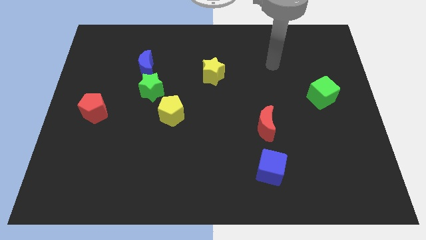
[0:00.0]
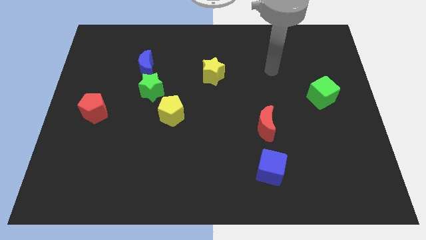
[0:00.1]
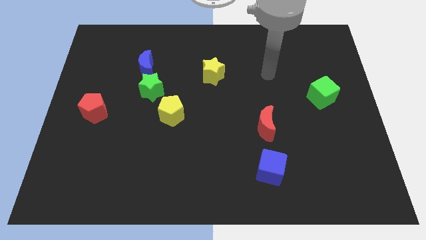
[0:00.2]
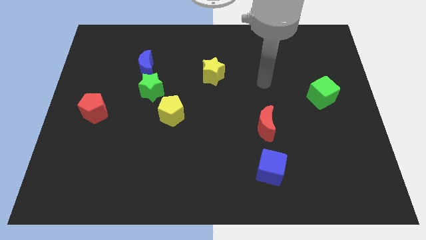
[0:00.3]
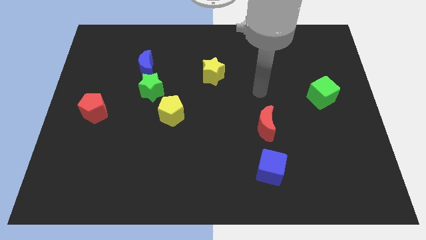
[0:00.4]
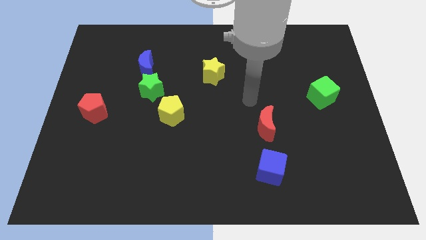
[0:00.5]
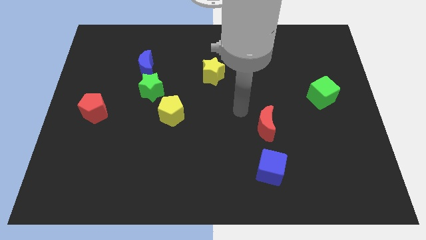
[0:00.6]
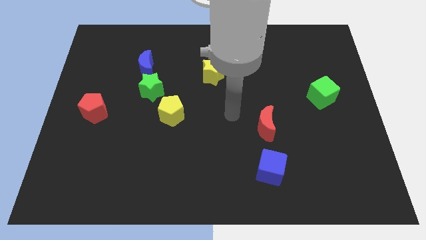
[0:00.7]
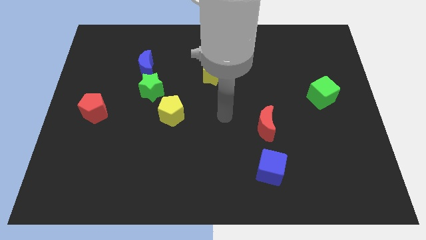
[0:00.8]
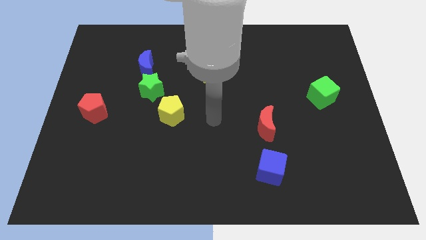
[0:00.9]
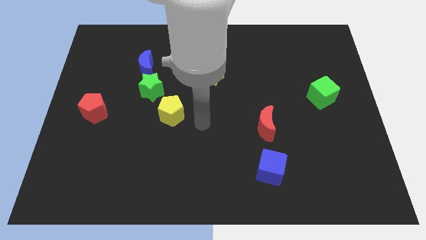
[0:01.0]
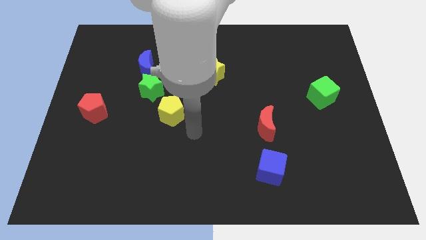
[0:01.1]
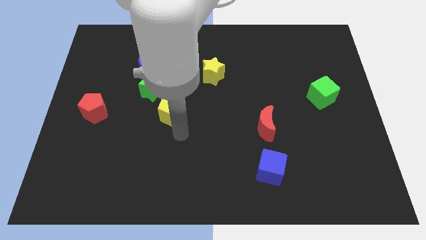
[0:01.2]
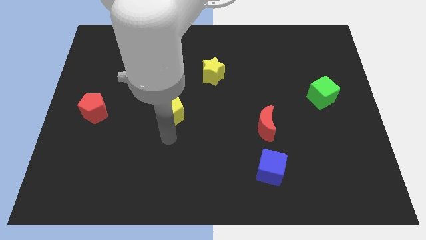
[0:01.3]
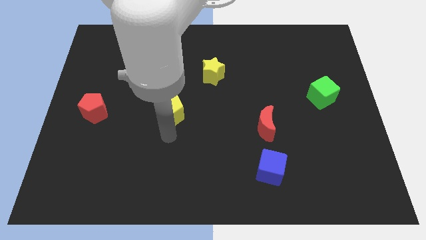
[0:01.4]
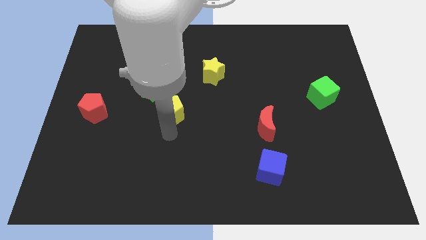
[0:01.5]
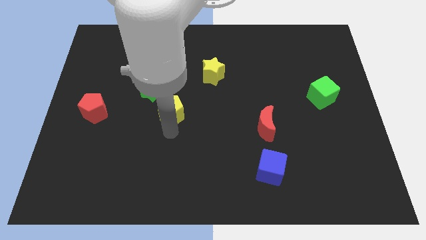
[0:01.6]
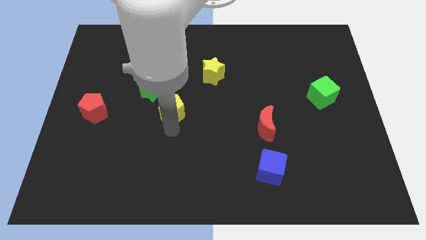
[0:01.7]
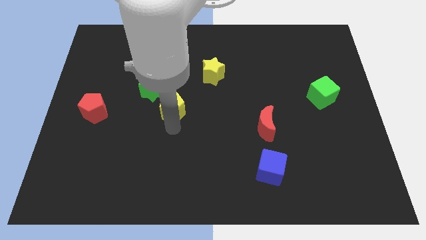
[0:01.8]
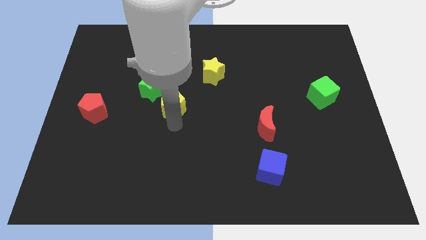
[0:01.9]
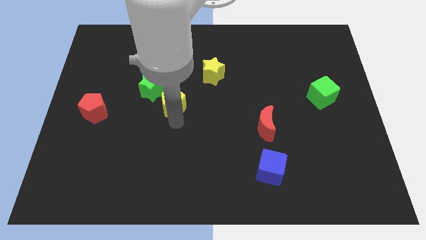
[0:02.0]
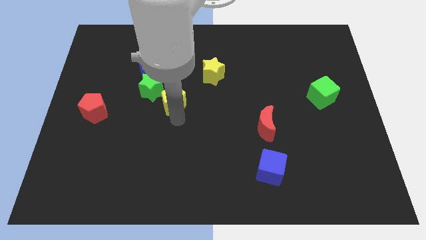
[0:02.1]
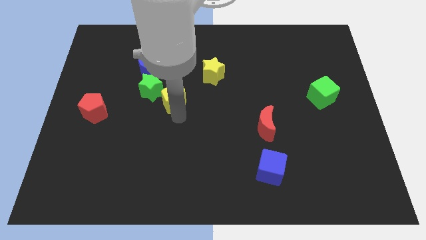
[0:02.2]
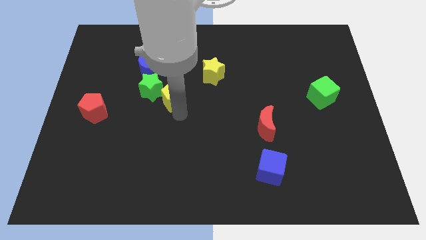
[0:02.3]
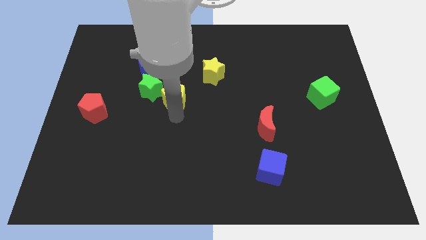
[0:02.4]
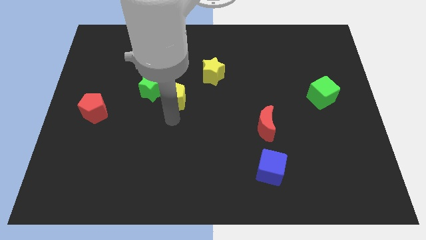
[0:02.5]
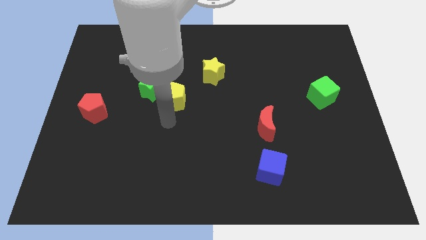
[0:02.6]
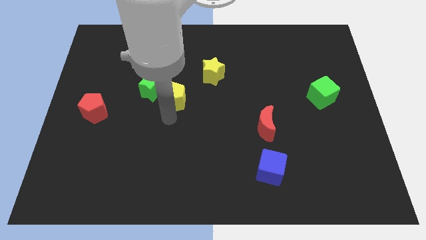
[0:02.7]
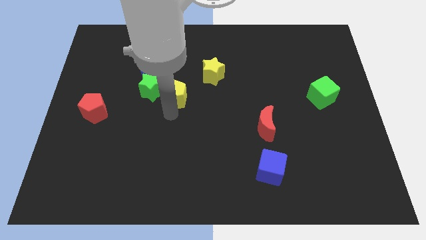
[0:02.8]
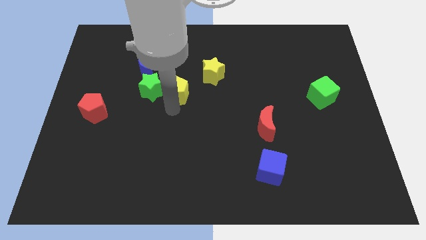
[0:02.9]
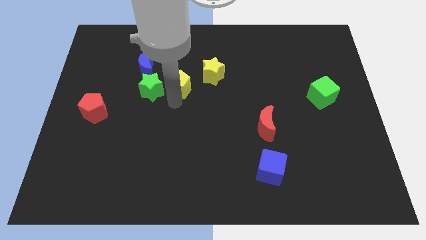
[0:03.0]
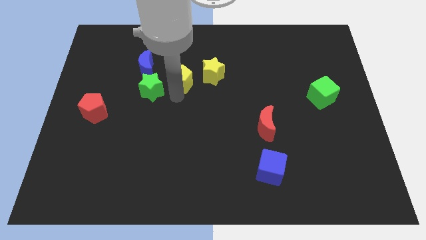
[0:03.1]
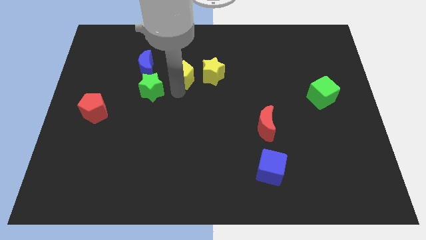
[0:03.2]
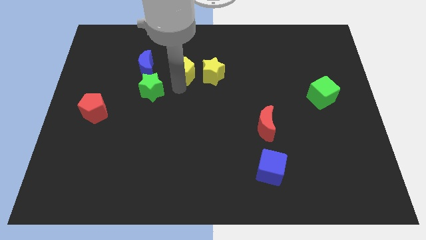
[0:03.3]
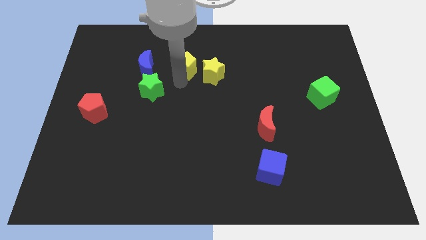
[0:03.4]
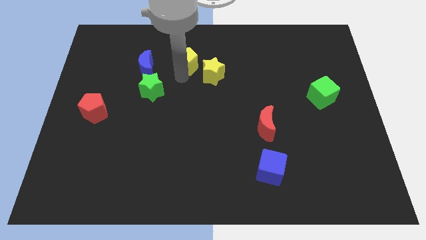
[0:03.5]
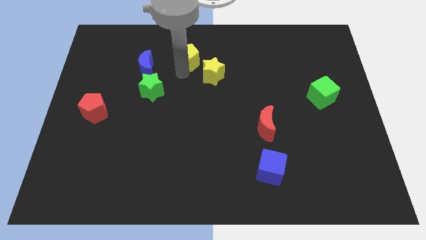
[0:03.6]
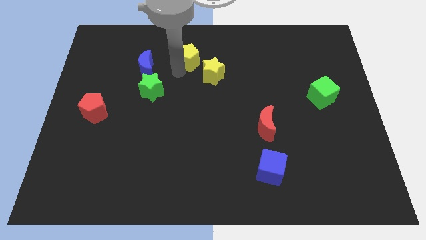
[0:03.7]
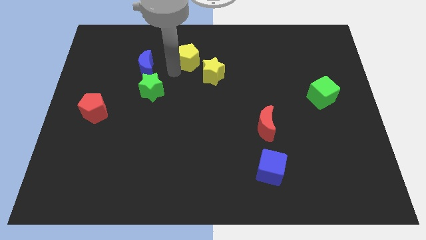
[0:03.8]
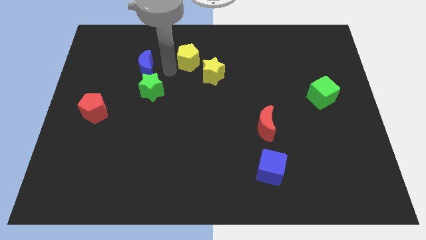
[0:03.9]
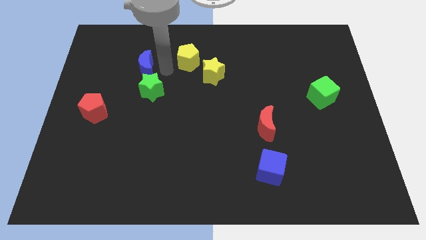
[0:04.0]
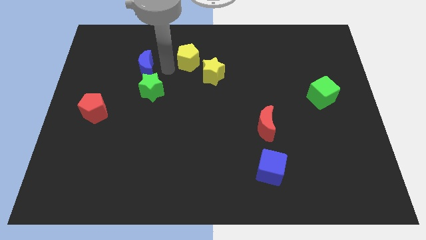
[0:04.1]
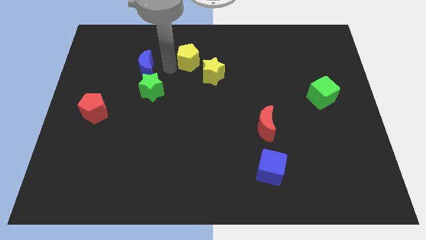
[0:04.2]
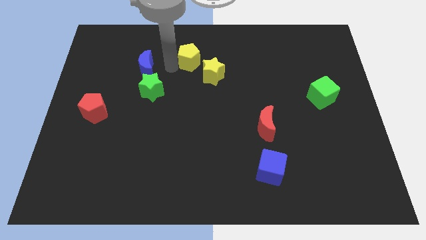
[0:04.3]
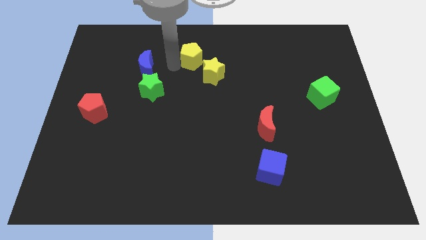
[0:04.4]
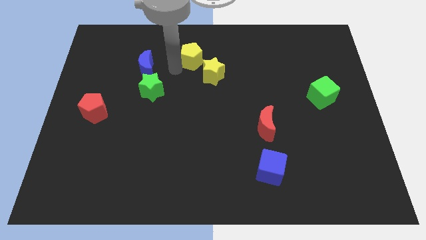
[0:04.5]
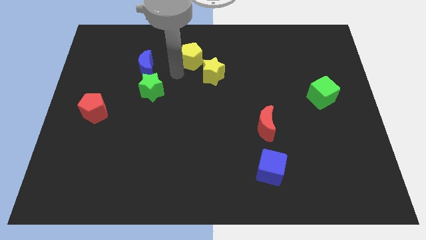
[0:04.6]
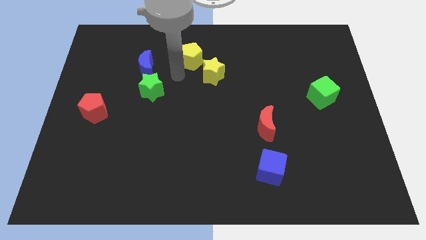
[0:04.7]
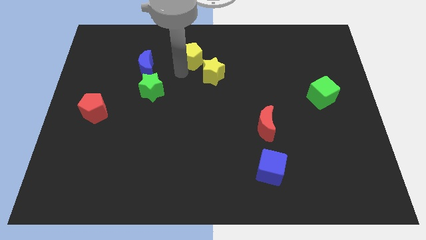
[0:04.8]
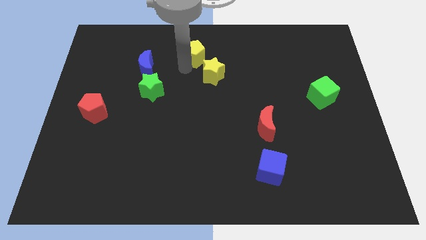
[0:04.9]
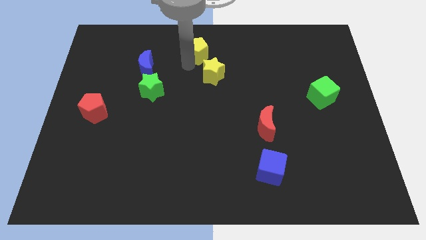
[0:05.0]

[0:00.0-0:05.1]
move the yellow pentagon to the towards your base

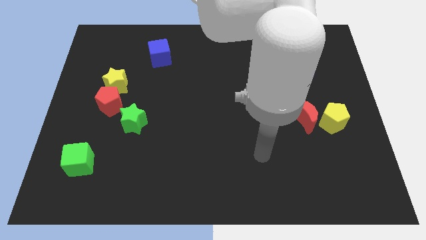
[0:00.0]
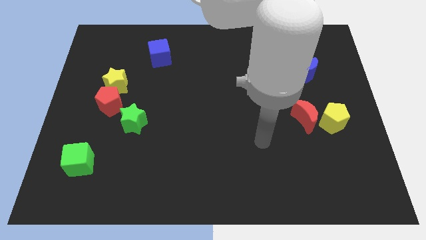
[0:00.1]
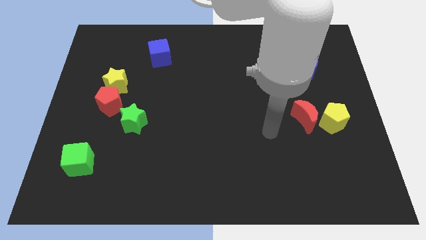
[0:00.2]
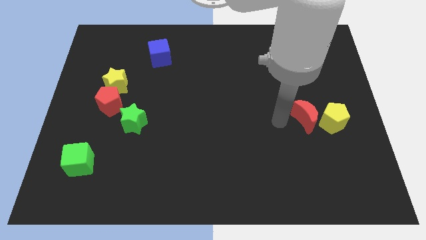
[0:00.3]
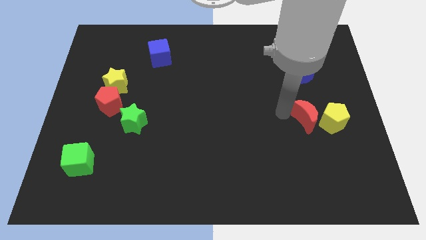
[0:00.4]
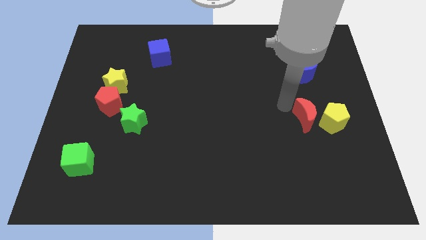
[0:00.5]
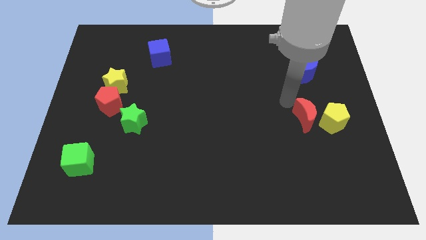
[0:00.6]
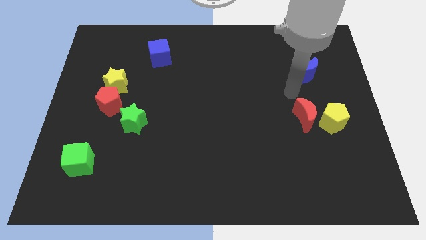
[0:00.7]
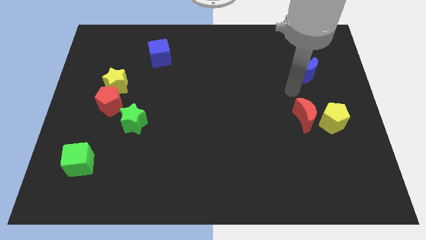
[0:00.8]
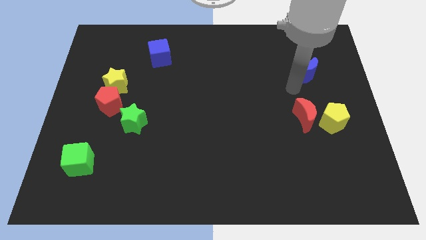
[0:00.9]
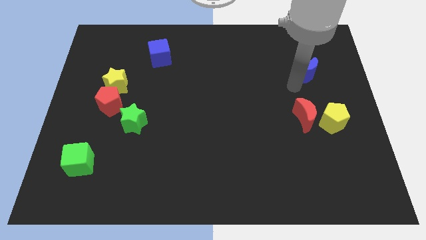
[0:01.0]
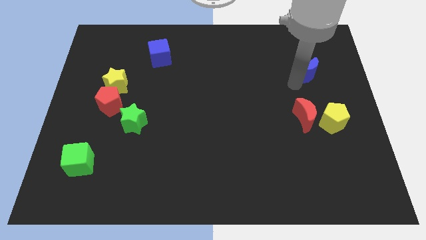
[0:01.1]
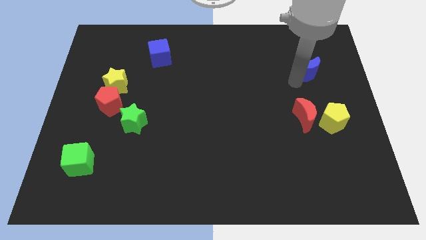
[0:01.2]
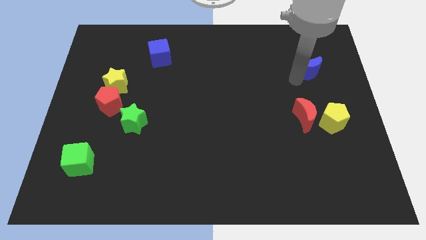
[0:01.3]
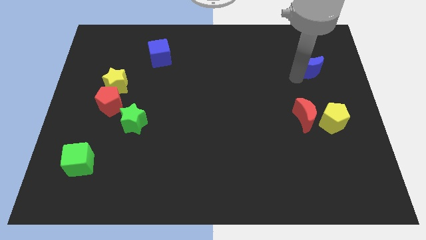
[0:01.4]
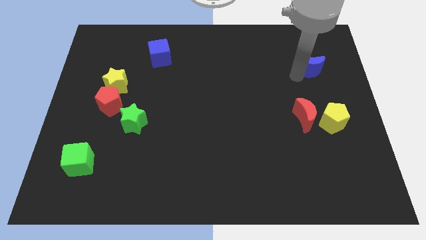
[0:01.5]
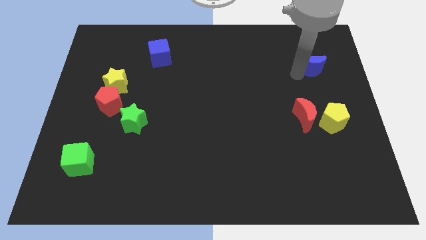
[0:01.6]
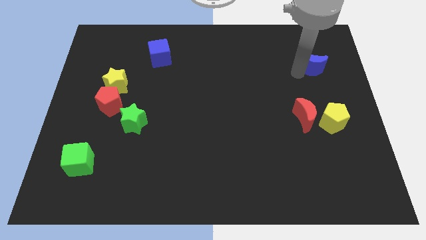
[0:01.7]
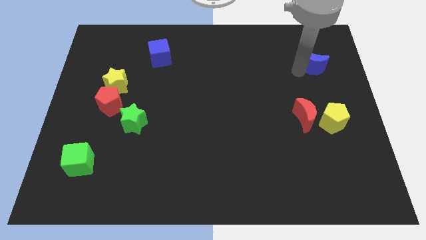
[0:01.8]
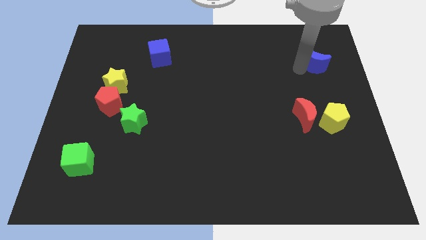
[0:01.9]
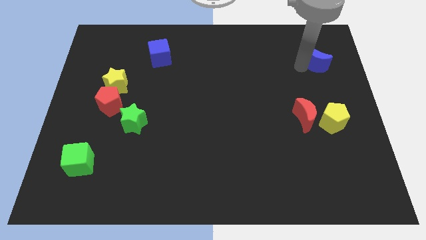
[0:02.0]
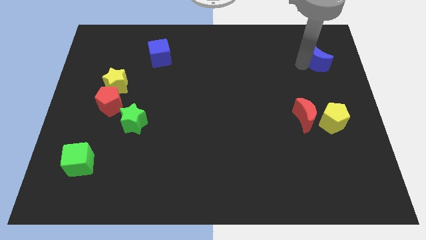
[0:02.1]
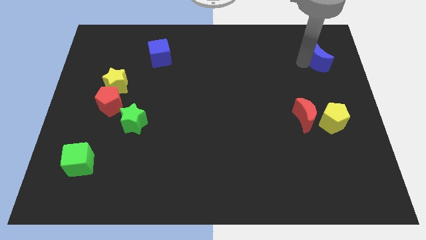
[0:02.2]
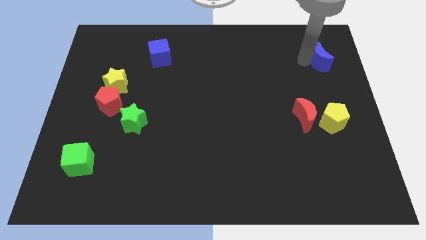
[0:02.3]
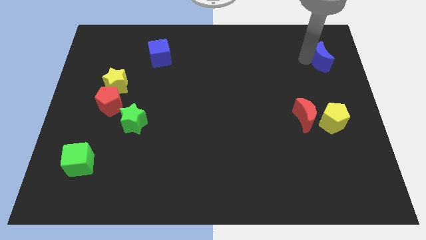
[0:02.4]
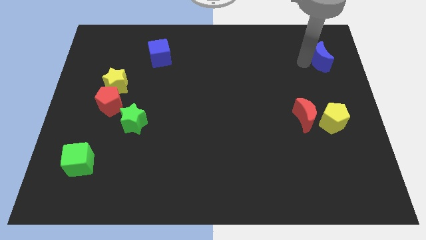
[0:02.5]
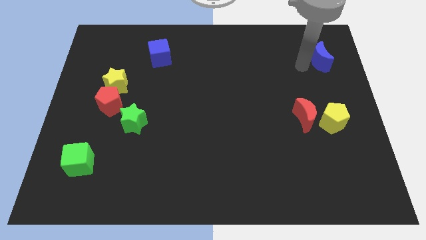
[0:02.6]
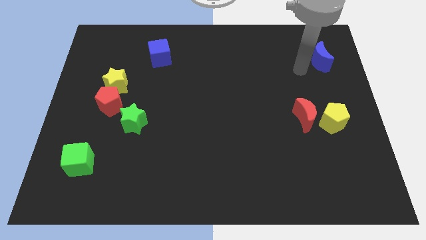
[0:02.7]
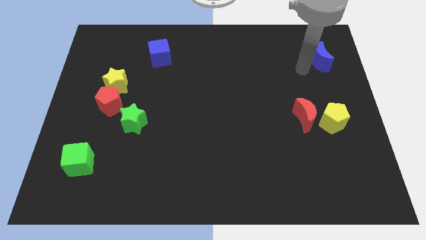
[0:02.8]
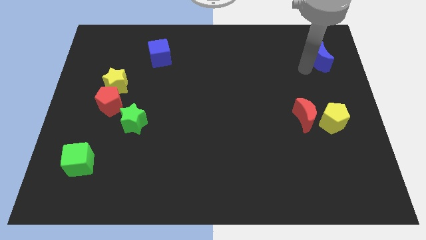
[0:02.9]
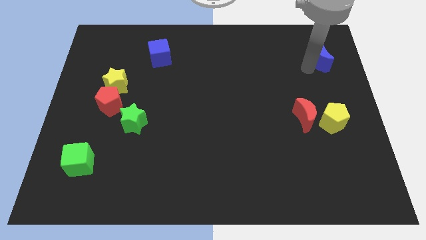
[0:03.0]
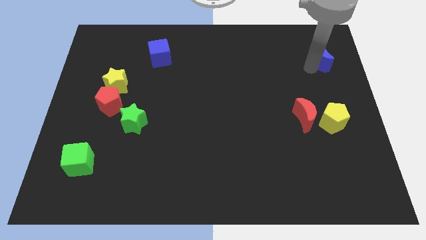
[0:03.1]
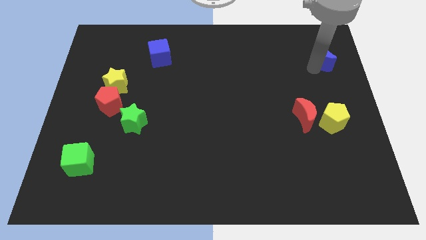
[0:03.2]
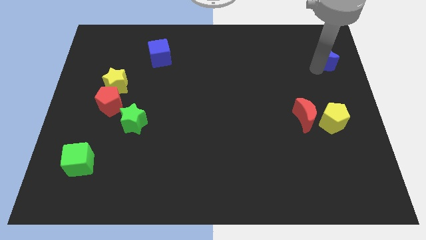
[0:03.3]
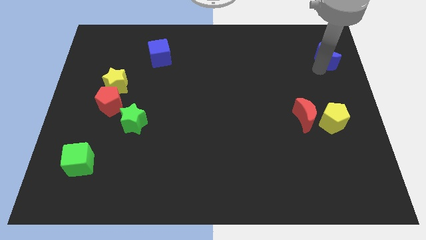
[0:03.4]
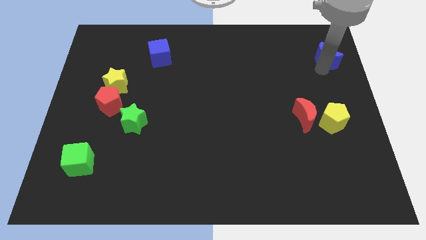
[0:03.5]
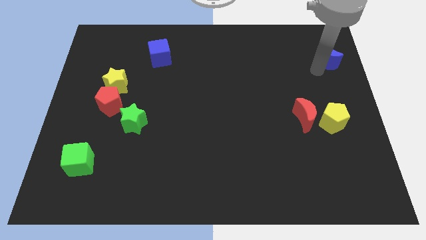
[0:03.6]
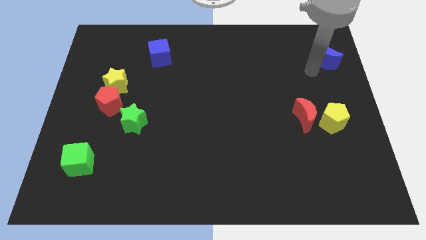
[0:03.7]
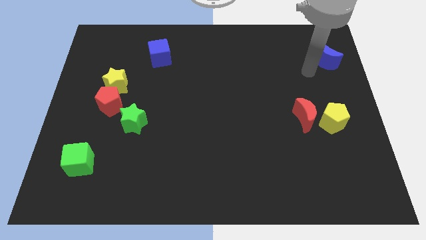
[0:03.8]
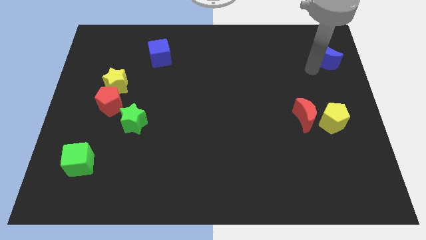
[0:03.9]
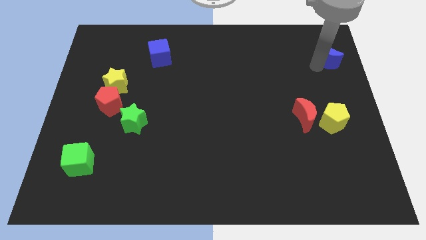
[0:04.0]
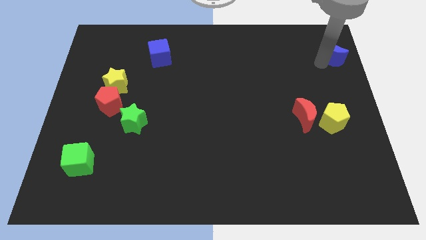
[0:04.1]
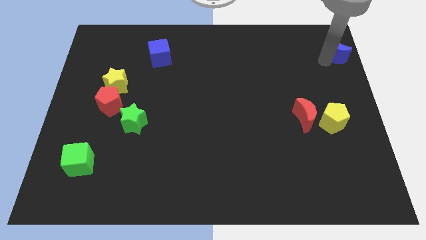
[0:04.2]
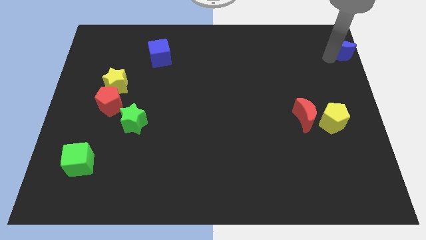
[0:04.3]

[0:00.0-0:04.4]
put the blue moon to the top right of the board
